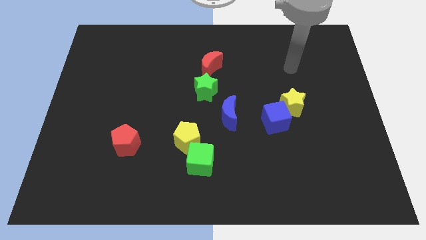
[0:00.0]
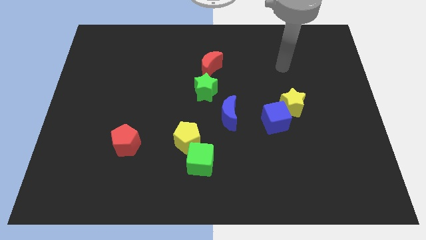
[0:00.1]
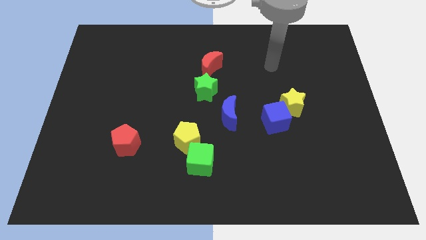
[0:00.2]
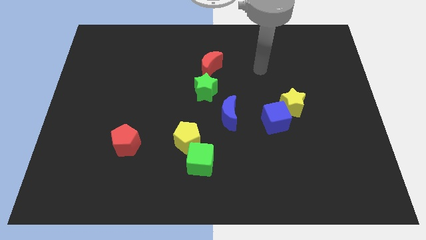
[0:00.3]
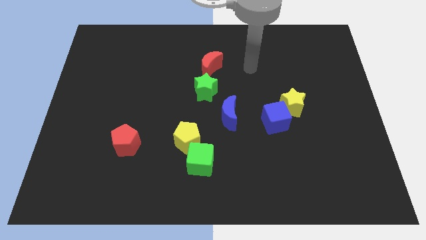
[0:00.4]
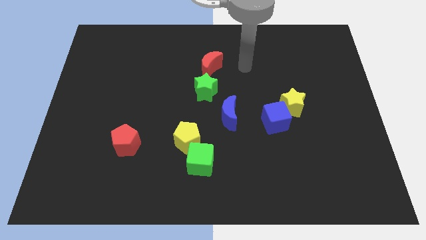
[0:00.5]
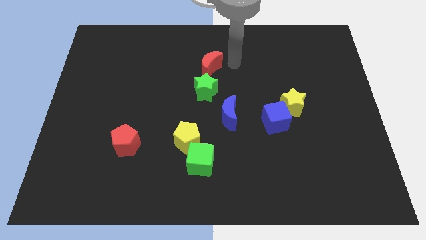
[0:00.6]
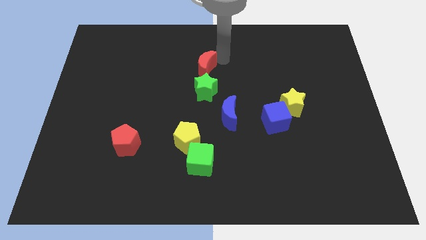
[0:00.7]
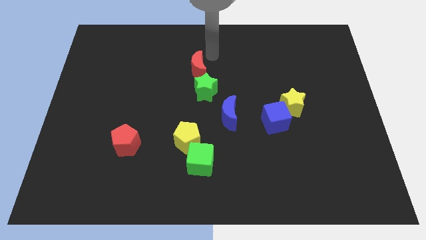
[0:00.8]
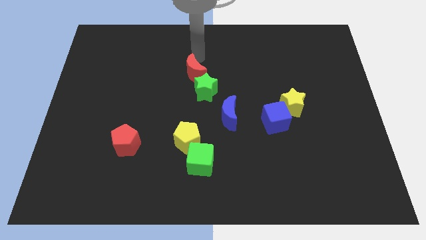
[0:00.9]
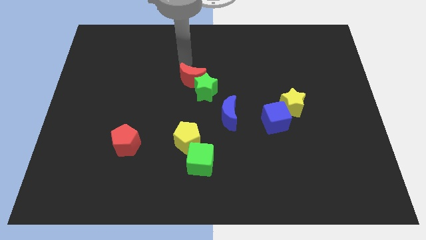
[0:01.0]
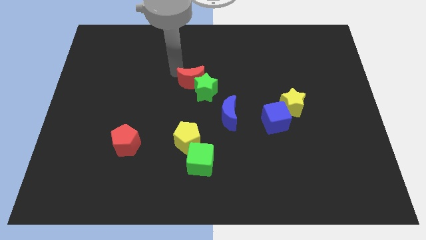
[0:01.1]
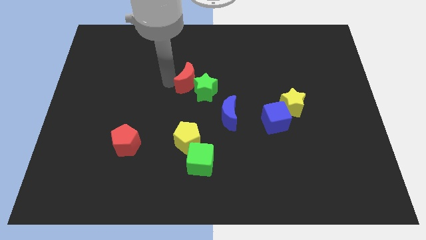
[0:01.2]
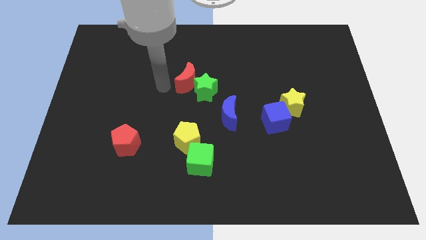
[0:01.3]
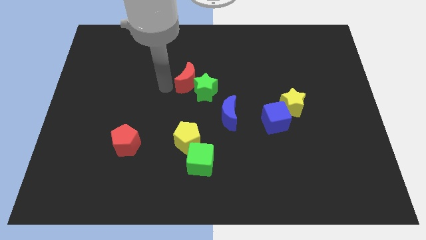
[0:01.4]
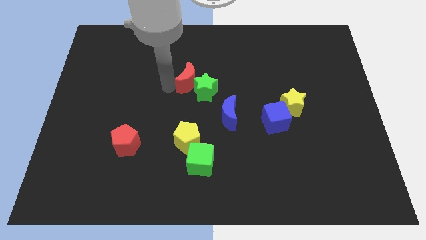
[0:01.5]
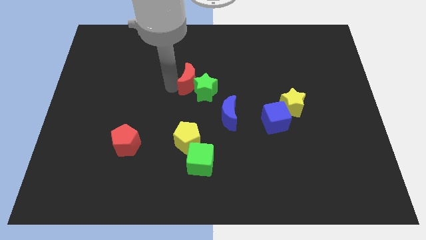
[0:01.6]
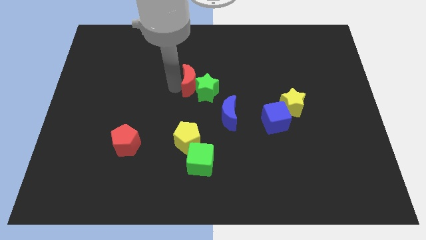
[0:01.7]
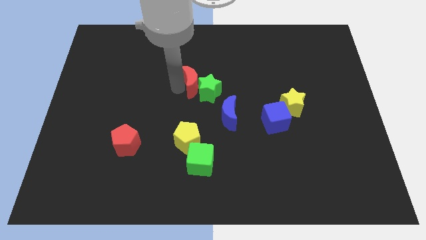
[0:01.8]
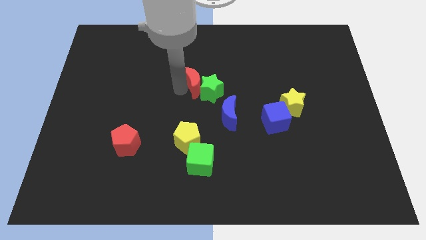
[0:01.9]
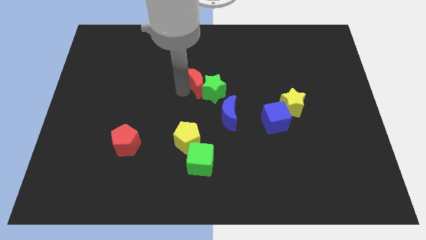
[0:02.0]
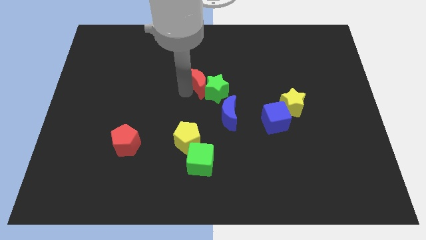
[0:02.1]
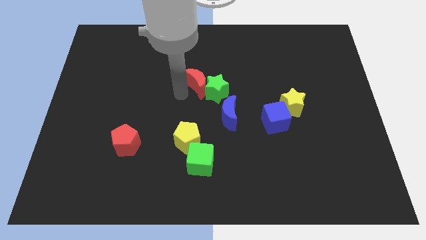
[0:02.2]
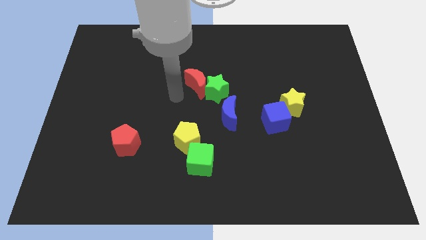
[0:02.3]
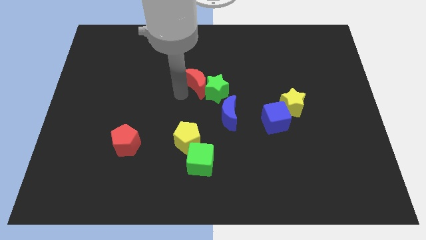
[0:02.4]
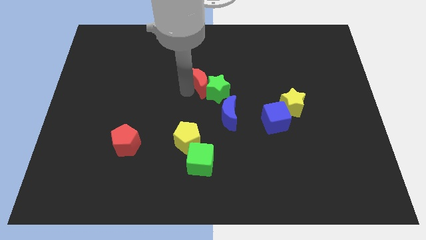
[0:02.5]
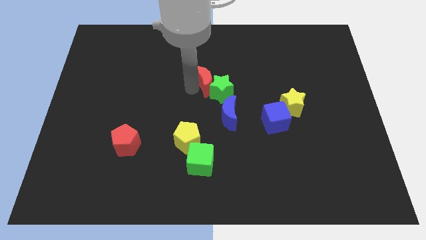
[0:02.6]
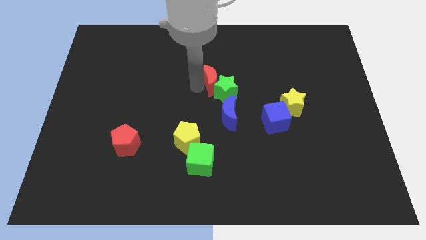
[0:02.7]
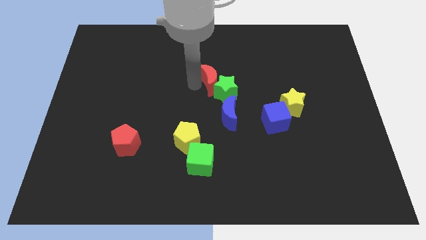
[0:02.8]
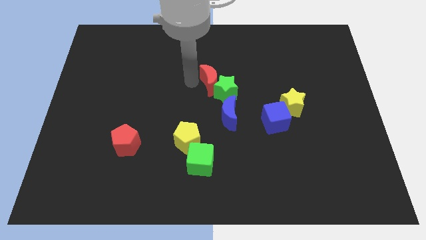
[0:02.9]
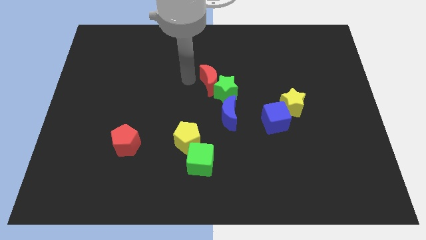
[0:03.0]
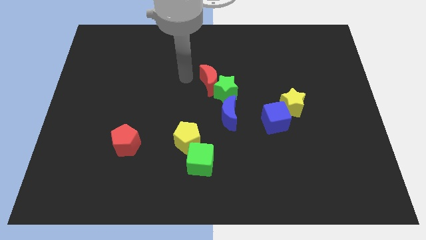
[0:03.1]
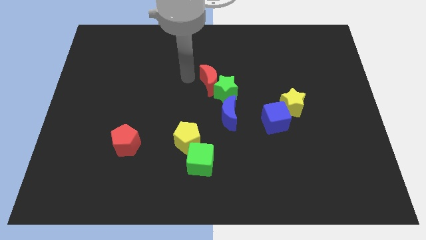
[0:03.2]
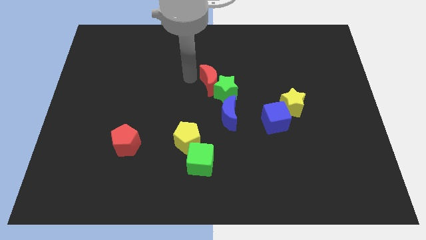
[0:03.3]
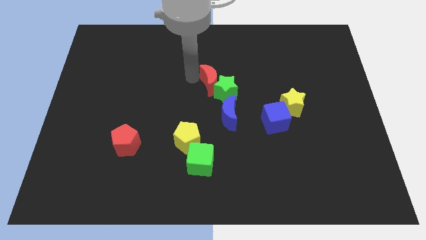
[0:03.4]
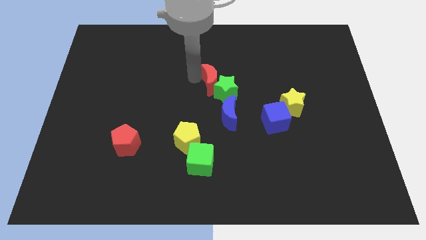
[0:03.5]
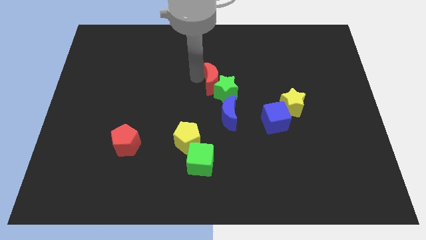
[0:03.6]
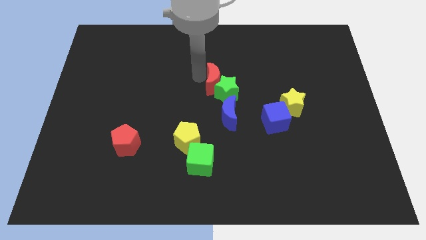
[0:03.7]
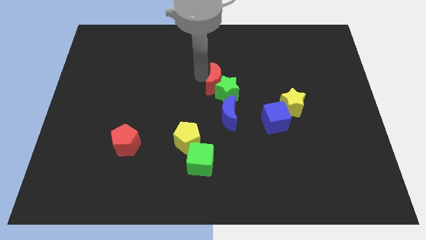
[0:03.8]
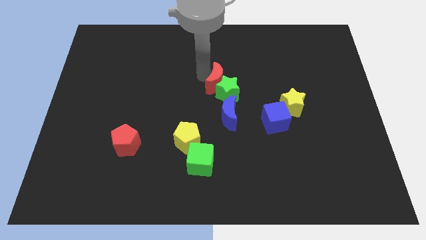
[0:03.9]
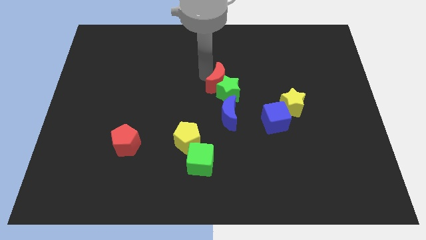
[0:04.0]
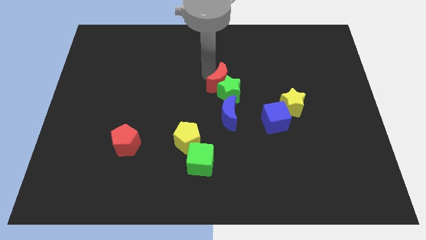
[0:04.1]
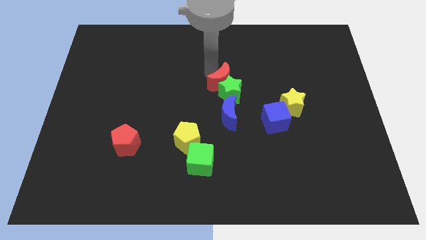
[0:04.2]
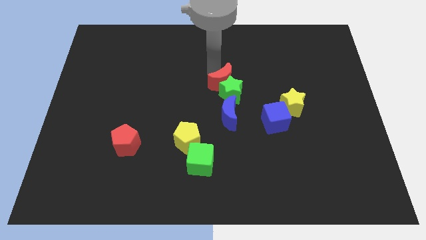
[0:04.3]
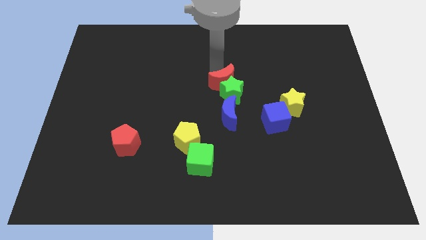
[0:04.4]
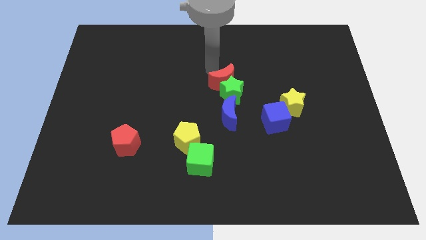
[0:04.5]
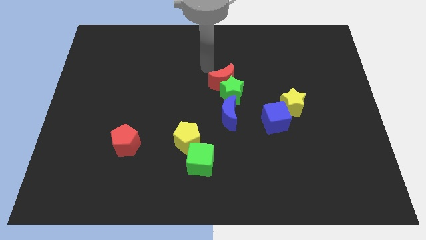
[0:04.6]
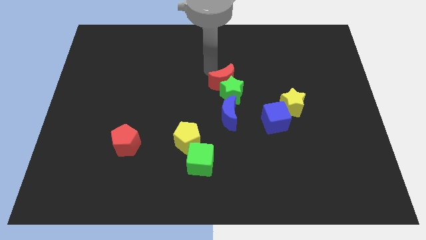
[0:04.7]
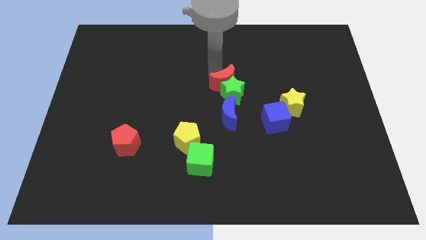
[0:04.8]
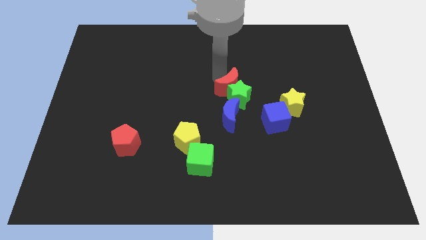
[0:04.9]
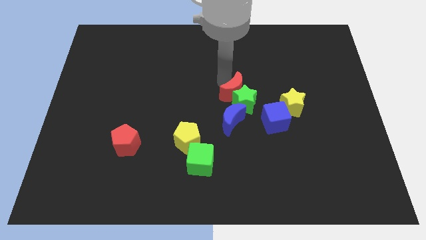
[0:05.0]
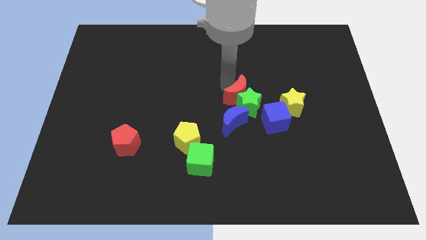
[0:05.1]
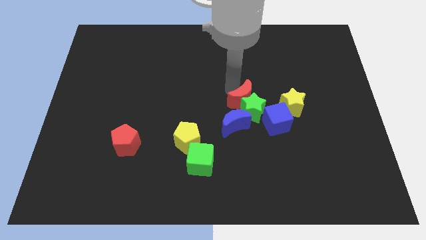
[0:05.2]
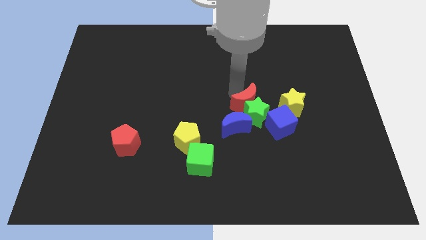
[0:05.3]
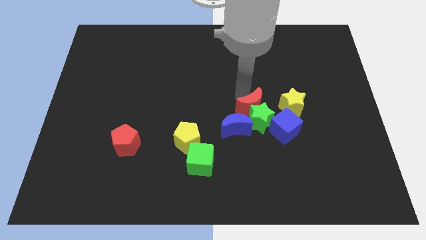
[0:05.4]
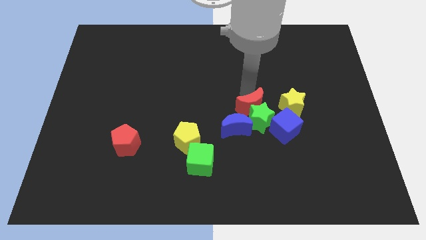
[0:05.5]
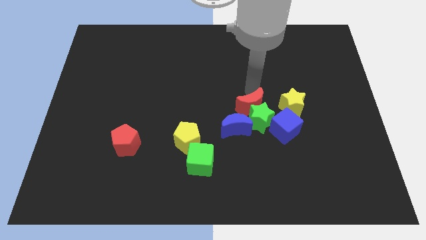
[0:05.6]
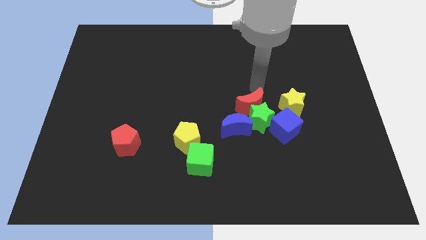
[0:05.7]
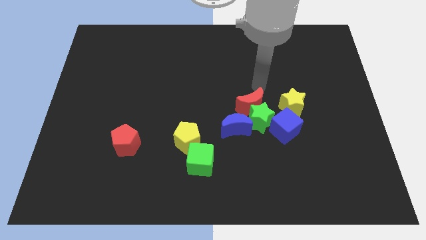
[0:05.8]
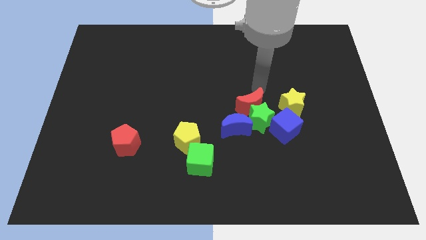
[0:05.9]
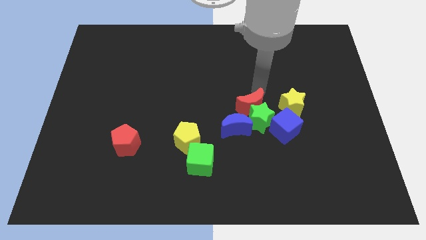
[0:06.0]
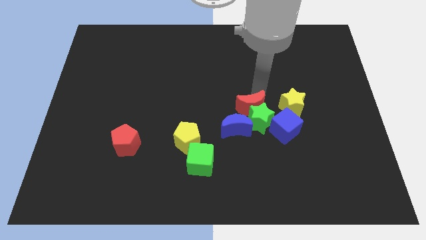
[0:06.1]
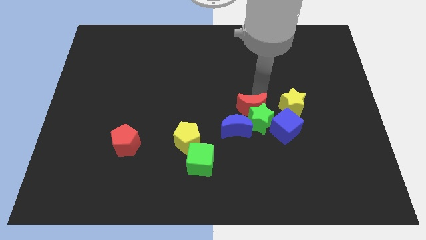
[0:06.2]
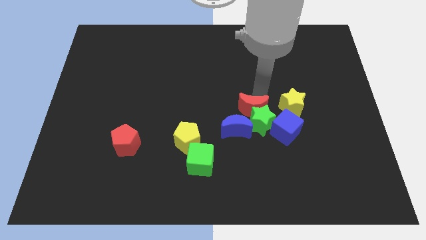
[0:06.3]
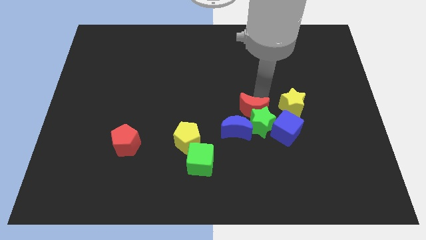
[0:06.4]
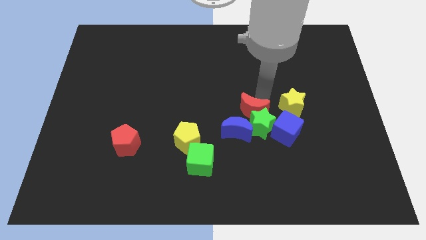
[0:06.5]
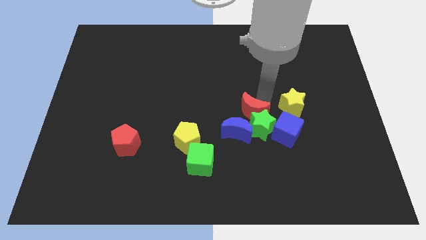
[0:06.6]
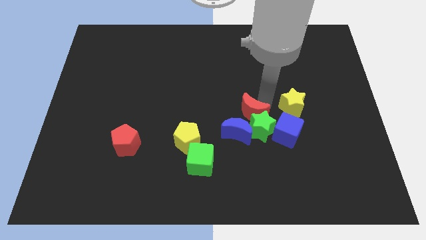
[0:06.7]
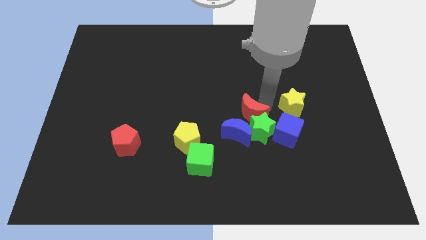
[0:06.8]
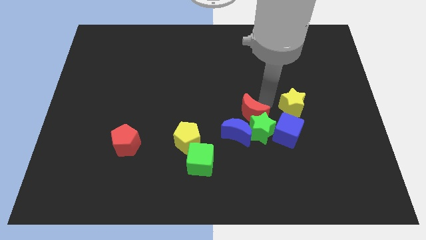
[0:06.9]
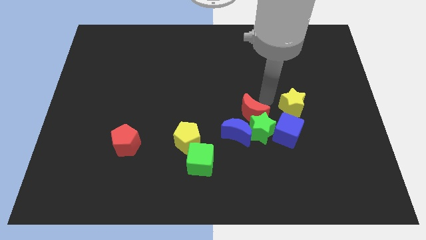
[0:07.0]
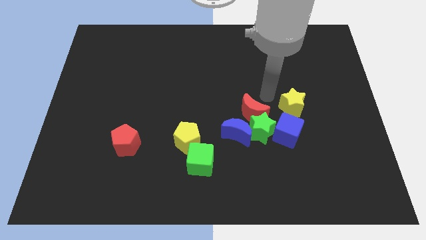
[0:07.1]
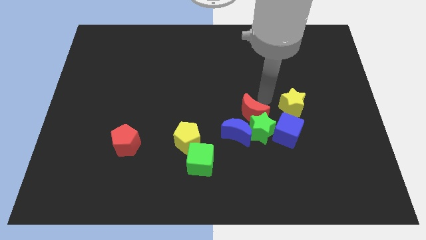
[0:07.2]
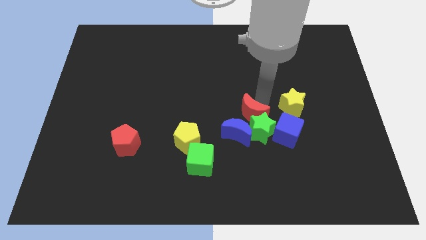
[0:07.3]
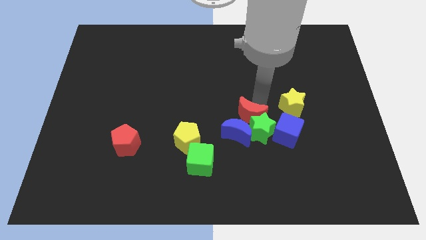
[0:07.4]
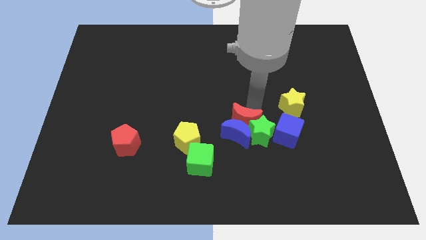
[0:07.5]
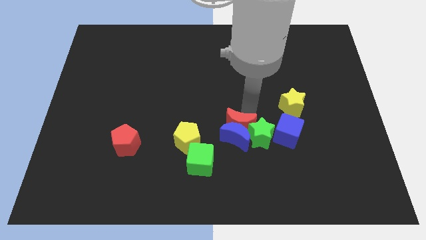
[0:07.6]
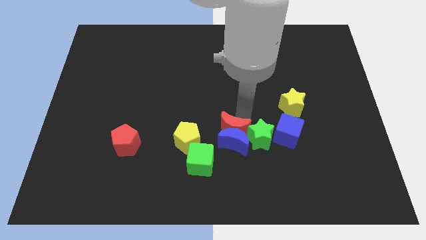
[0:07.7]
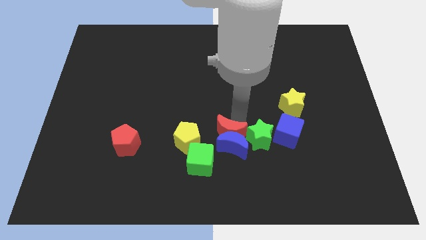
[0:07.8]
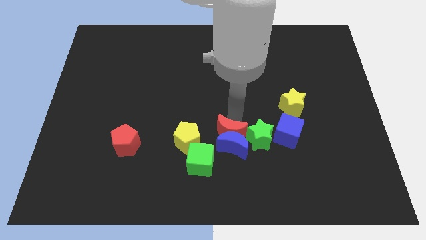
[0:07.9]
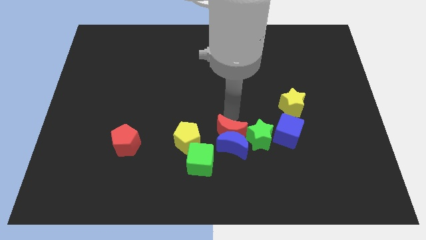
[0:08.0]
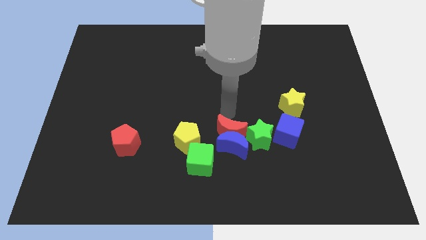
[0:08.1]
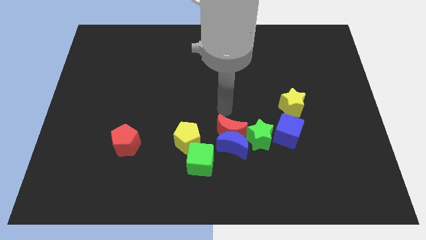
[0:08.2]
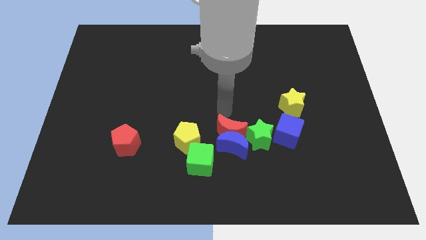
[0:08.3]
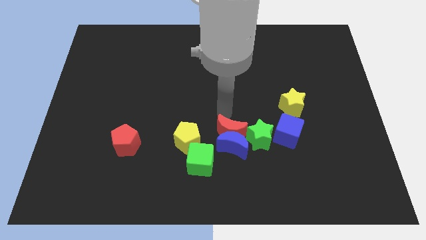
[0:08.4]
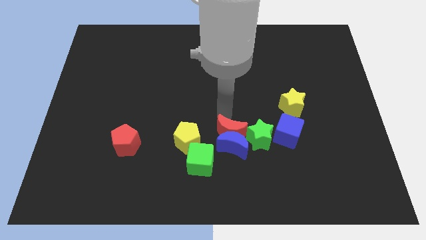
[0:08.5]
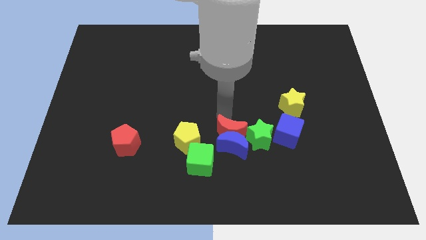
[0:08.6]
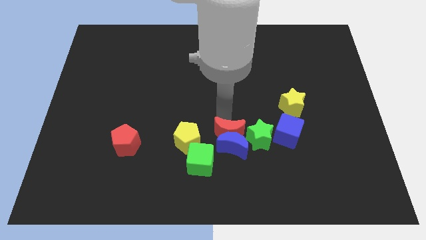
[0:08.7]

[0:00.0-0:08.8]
push the red moon down
